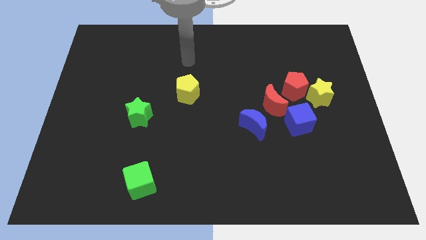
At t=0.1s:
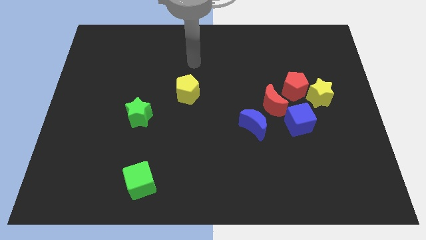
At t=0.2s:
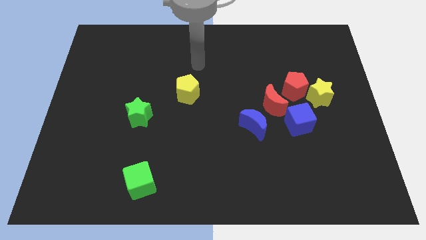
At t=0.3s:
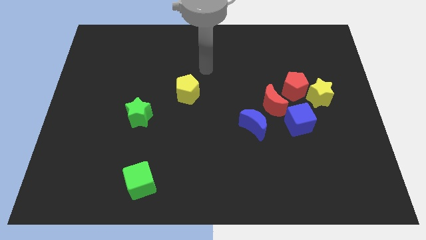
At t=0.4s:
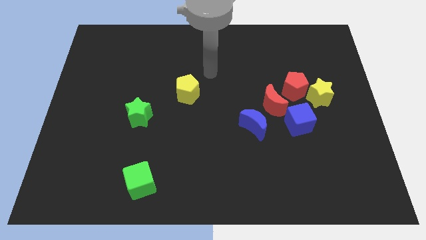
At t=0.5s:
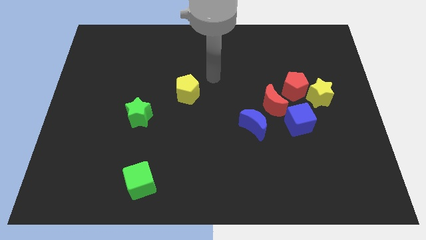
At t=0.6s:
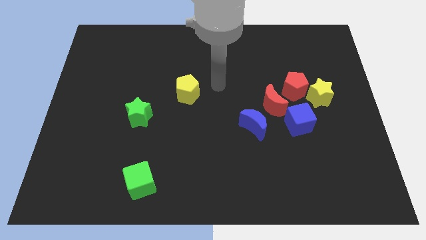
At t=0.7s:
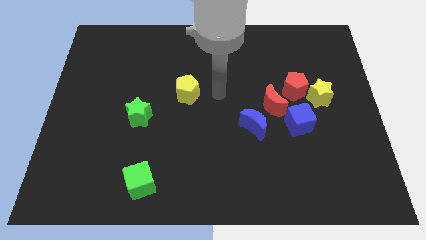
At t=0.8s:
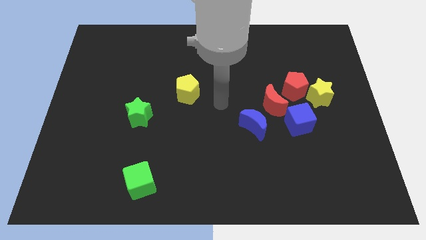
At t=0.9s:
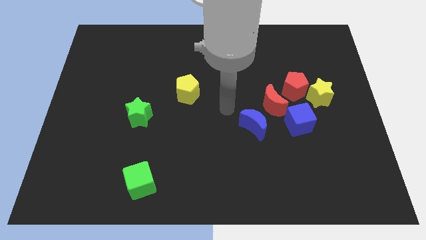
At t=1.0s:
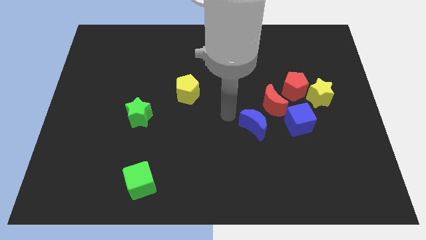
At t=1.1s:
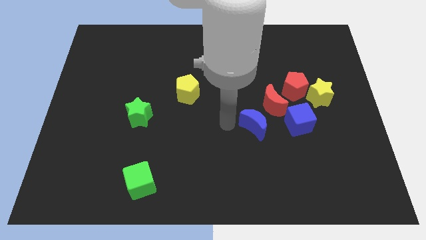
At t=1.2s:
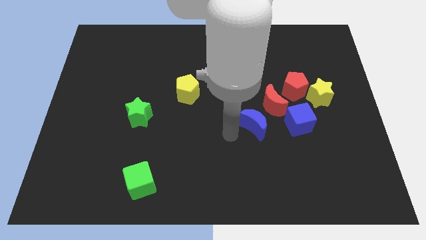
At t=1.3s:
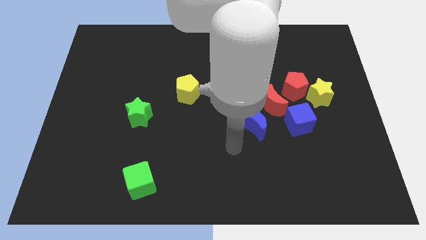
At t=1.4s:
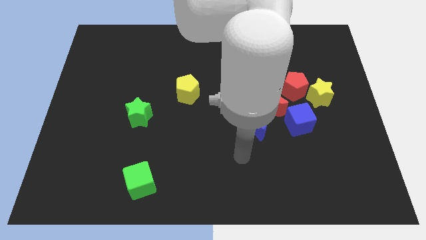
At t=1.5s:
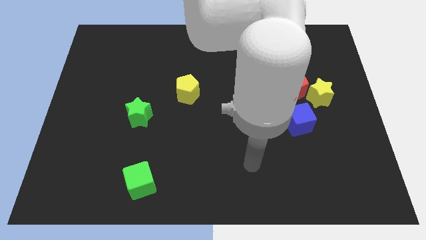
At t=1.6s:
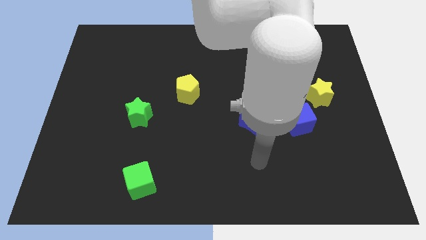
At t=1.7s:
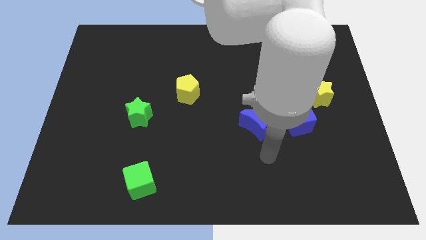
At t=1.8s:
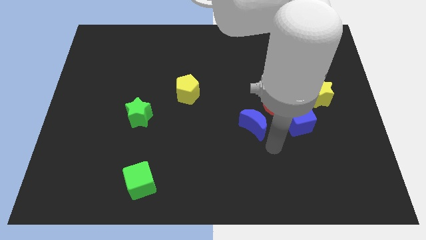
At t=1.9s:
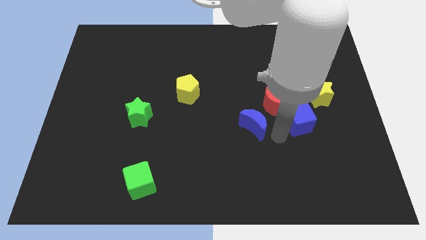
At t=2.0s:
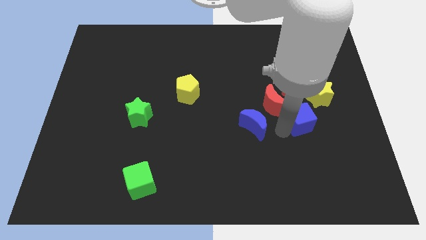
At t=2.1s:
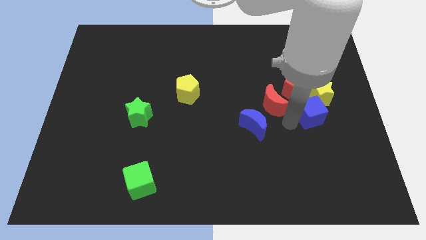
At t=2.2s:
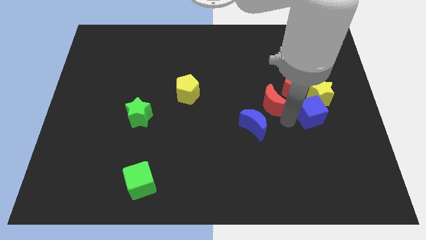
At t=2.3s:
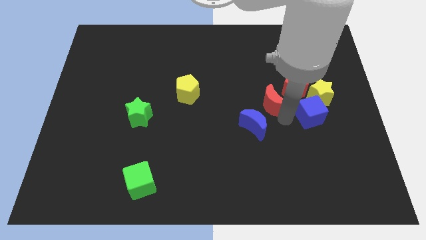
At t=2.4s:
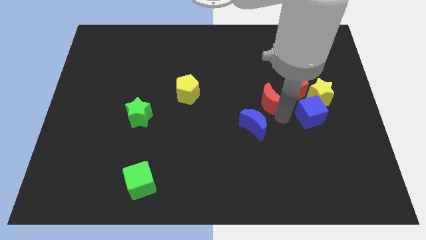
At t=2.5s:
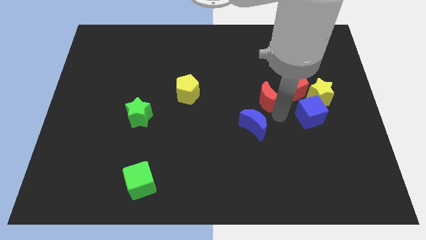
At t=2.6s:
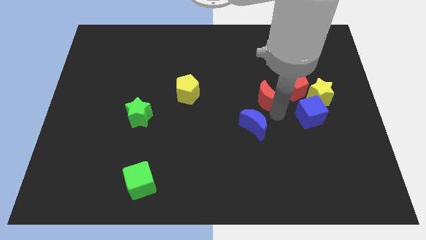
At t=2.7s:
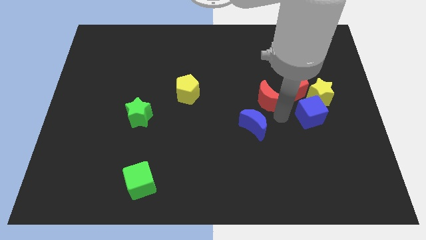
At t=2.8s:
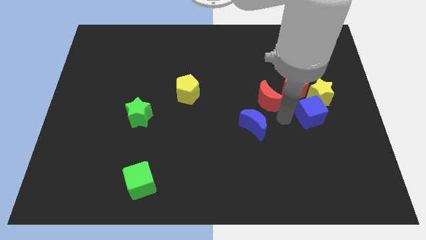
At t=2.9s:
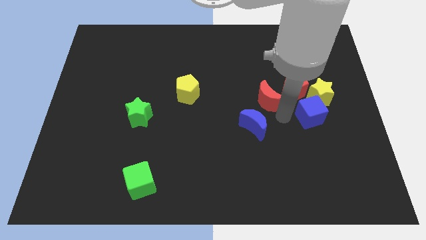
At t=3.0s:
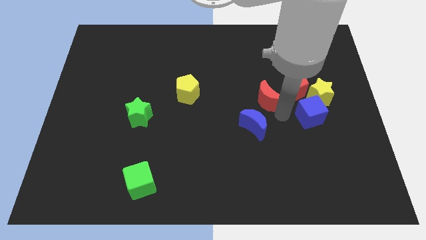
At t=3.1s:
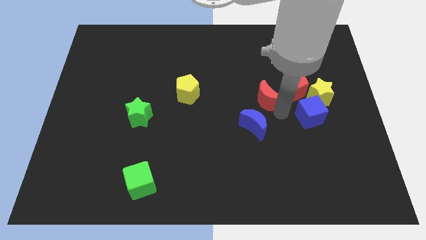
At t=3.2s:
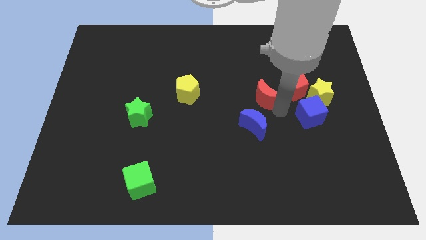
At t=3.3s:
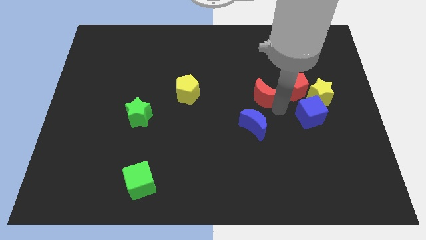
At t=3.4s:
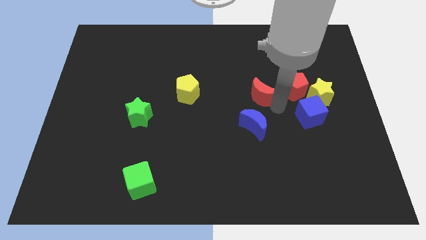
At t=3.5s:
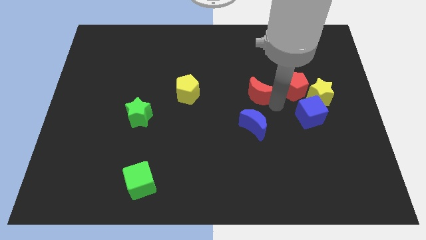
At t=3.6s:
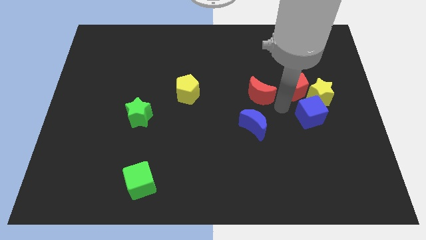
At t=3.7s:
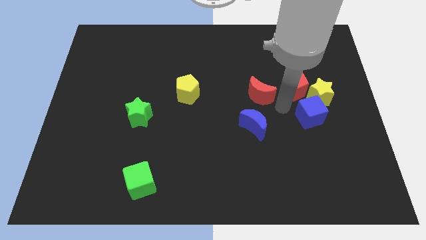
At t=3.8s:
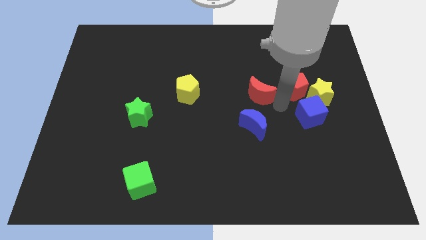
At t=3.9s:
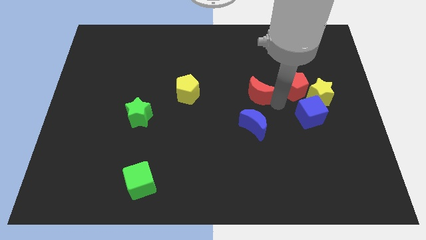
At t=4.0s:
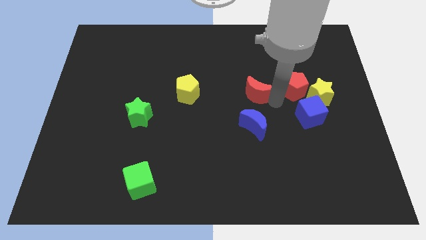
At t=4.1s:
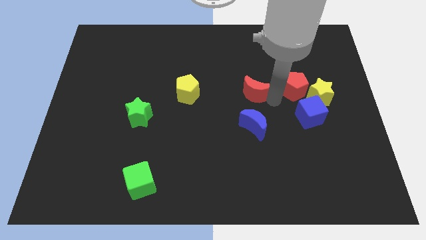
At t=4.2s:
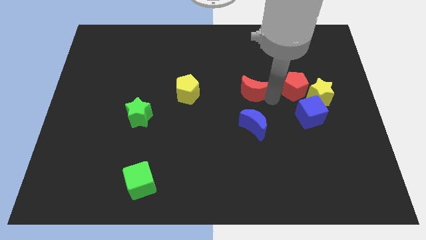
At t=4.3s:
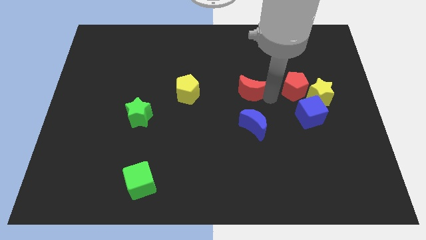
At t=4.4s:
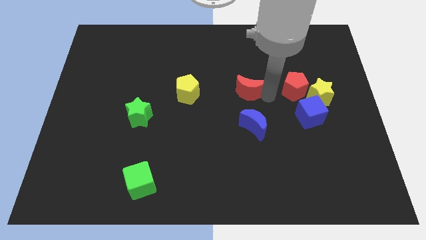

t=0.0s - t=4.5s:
pull the red moon apart from the red pentagon, blue cube, and blue moon

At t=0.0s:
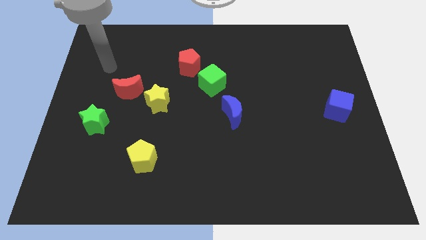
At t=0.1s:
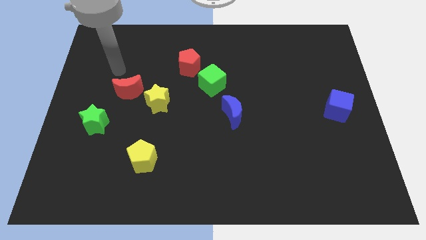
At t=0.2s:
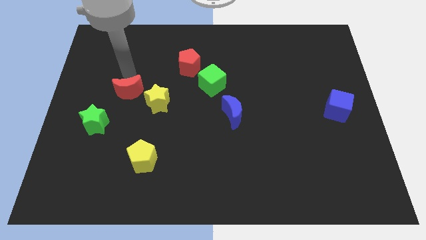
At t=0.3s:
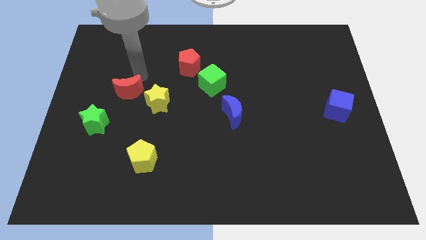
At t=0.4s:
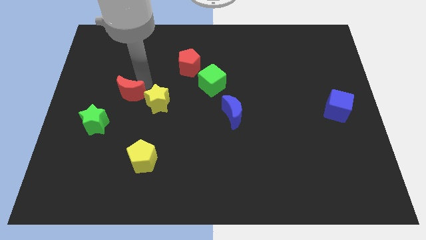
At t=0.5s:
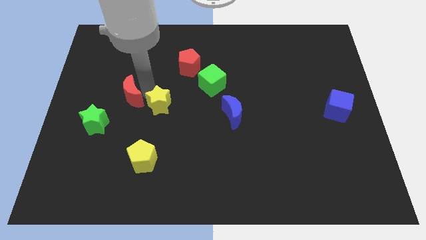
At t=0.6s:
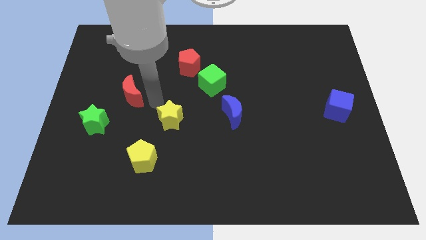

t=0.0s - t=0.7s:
move the red moon away from the yellow star

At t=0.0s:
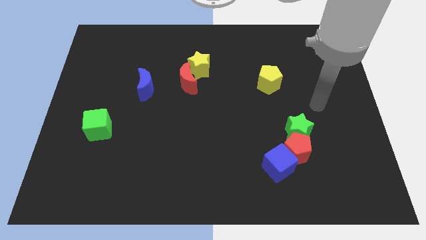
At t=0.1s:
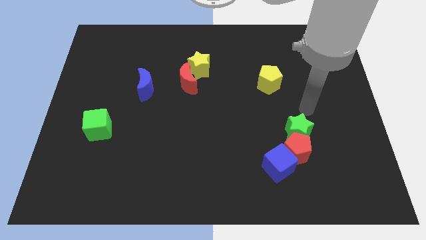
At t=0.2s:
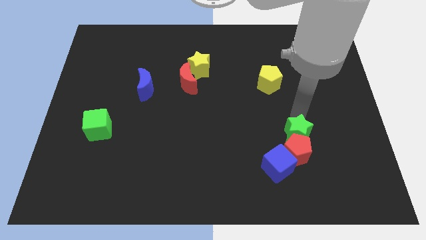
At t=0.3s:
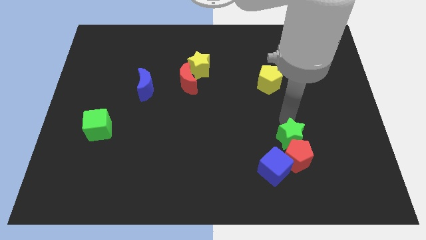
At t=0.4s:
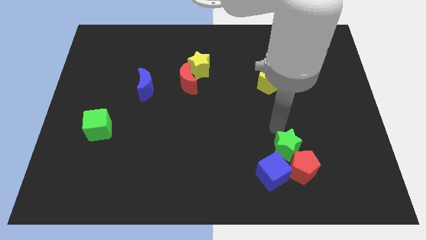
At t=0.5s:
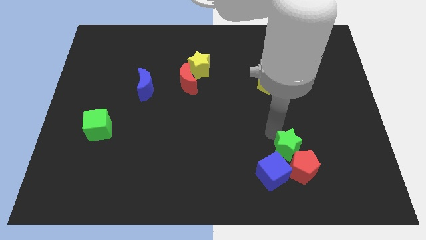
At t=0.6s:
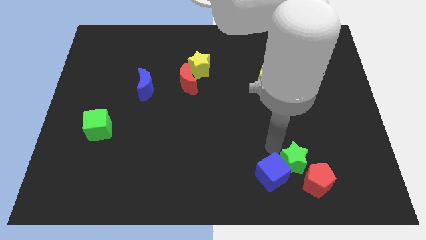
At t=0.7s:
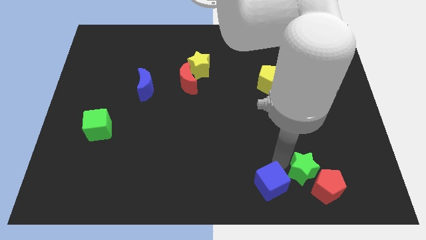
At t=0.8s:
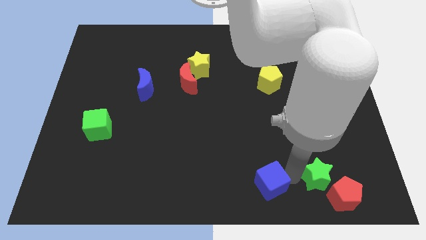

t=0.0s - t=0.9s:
pull the red pentagon apart from the green star and blue cube

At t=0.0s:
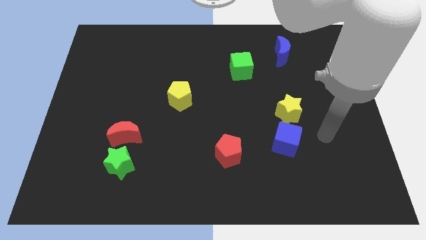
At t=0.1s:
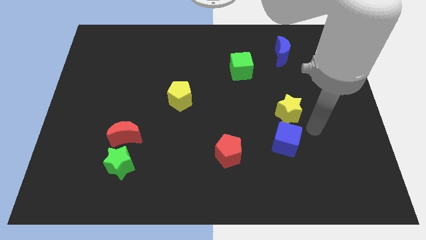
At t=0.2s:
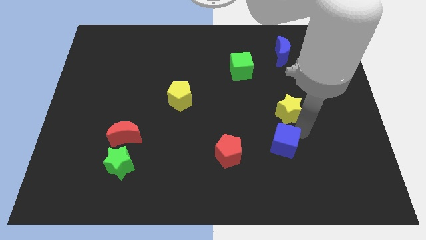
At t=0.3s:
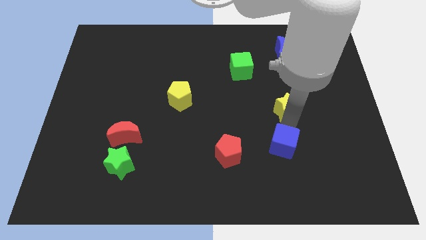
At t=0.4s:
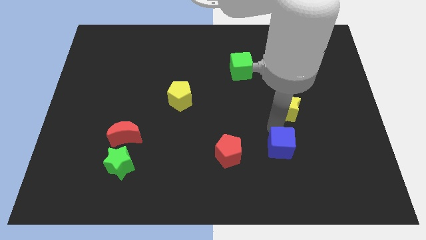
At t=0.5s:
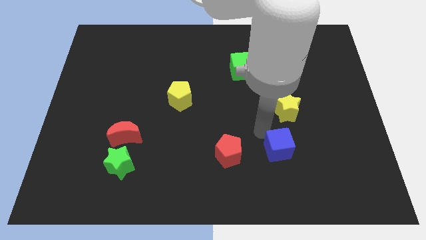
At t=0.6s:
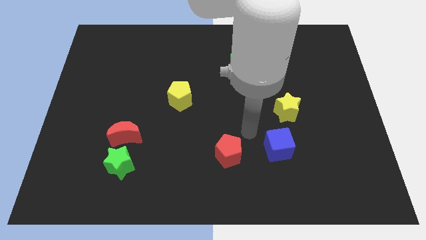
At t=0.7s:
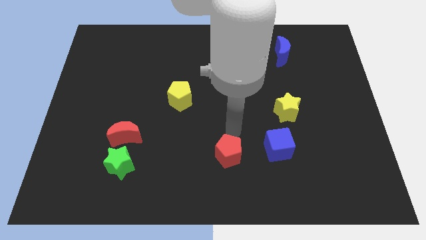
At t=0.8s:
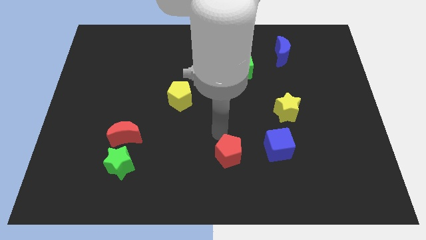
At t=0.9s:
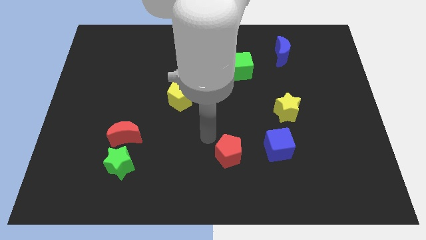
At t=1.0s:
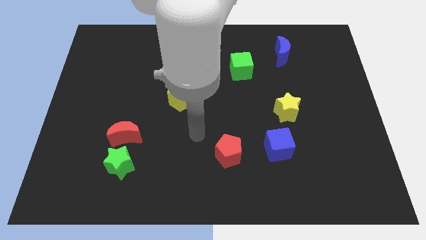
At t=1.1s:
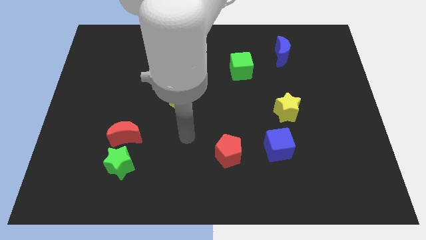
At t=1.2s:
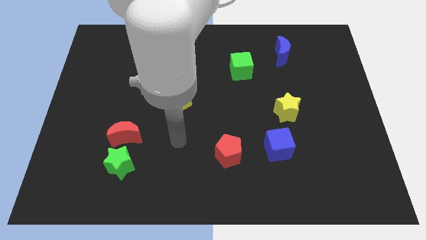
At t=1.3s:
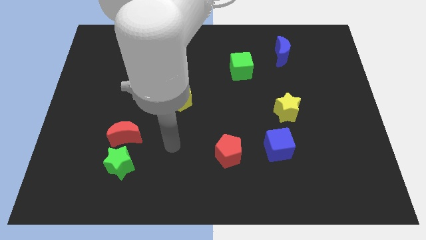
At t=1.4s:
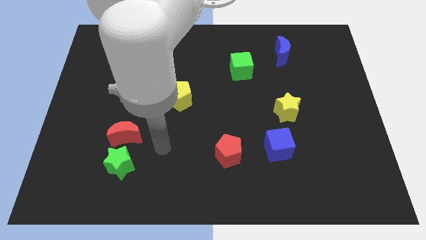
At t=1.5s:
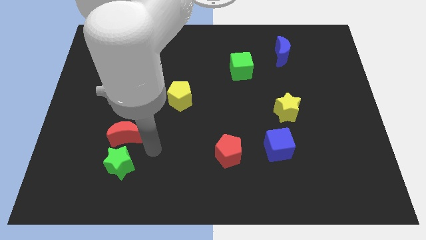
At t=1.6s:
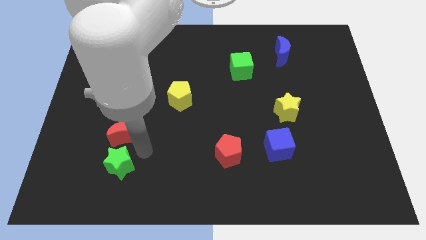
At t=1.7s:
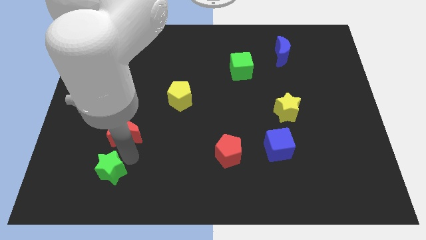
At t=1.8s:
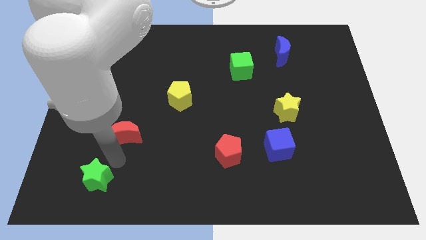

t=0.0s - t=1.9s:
pull the red moon apart from the green star

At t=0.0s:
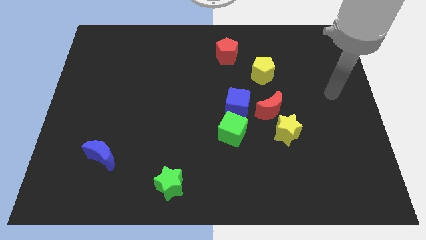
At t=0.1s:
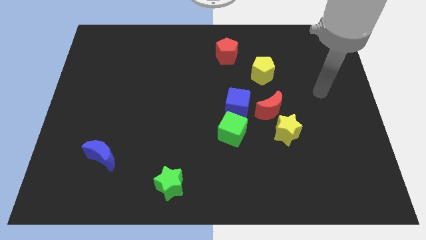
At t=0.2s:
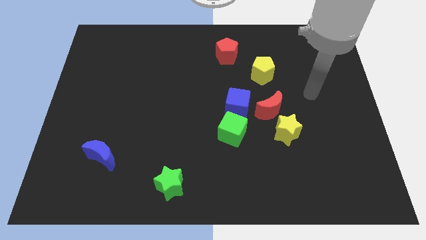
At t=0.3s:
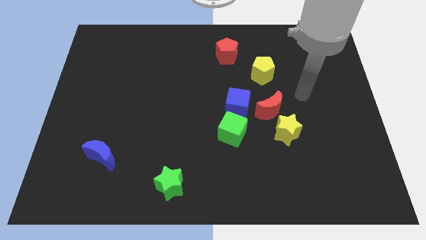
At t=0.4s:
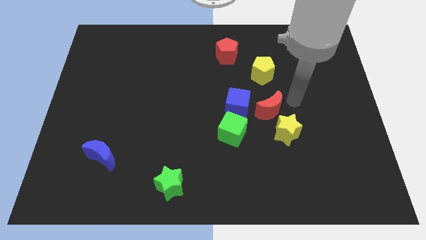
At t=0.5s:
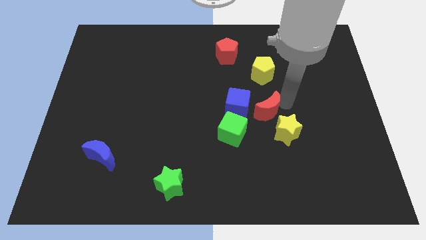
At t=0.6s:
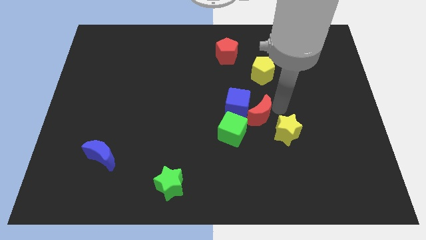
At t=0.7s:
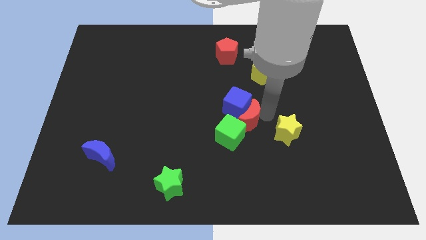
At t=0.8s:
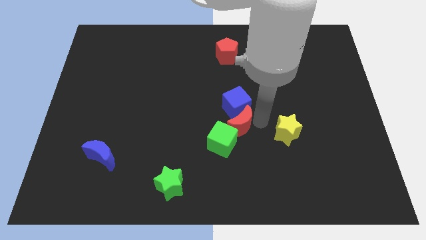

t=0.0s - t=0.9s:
separate the yellow star from the red moon

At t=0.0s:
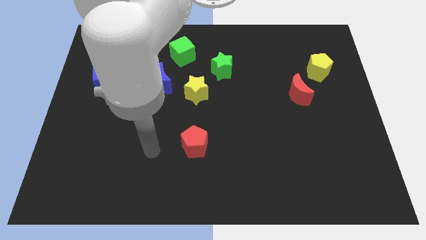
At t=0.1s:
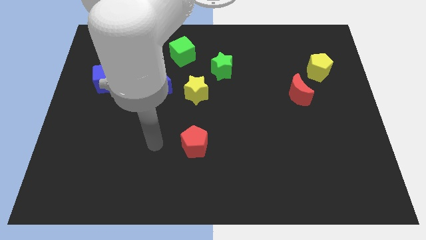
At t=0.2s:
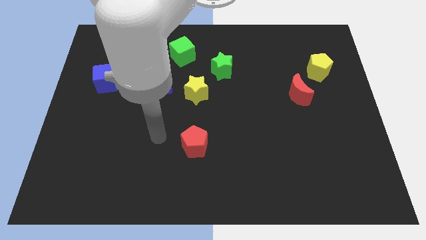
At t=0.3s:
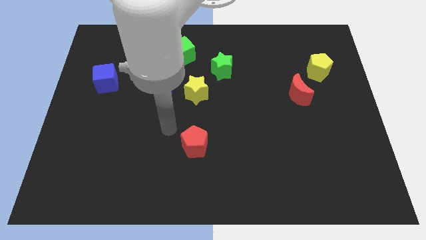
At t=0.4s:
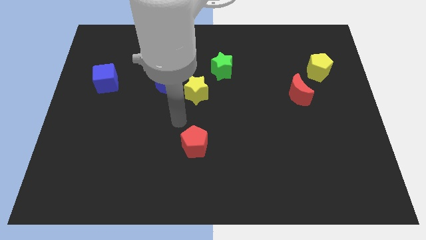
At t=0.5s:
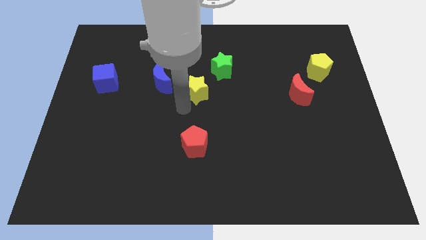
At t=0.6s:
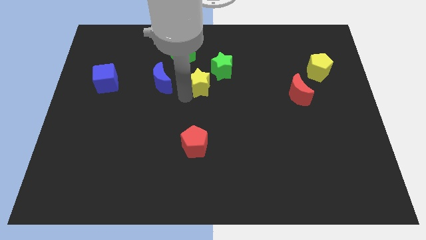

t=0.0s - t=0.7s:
move the blue moon away from the yellow star
